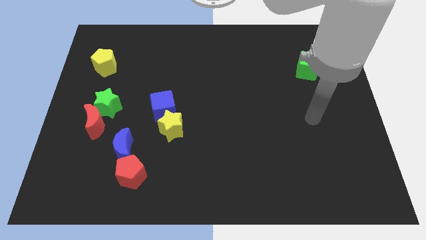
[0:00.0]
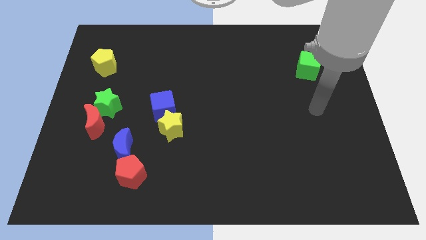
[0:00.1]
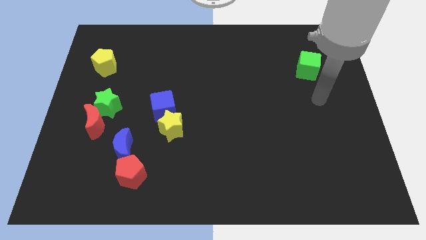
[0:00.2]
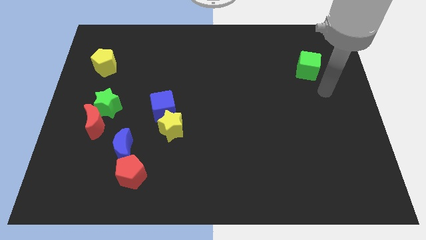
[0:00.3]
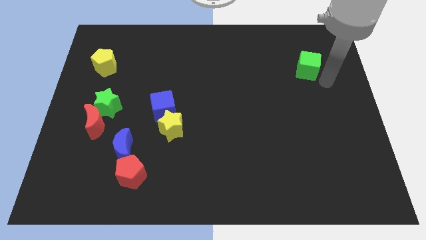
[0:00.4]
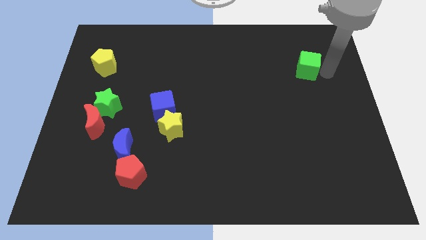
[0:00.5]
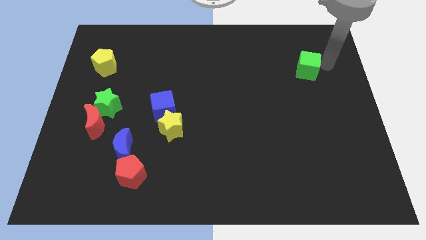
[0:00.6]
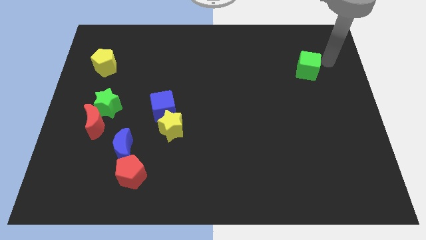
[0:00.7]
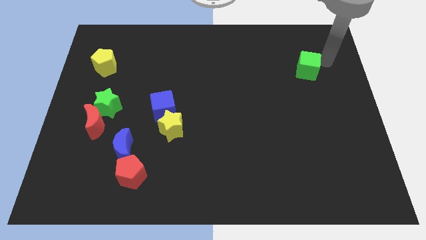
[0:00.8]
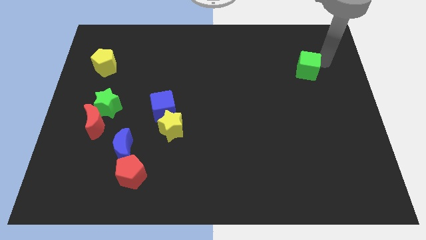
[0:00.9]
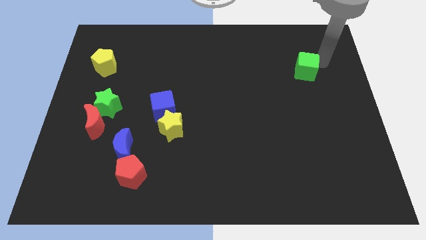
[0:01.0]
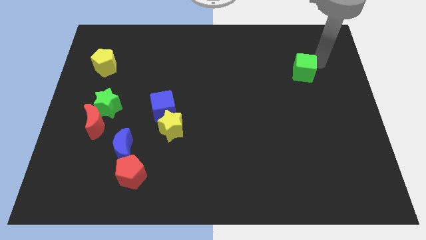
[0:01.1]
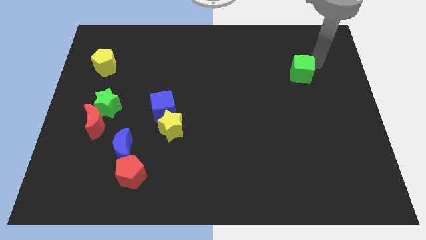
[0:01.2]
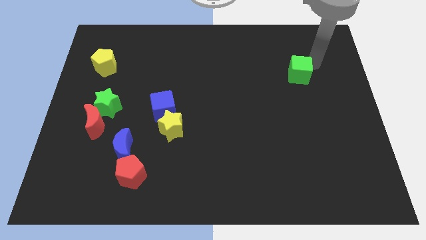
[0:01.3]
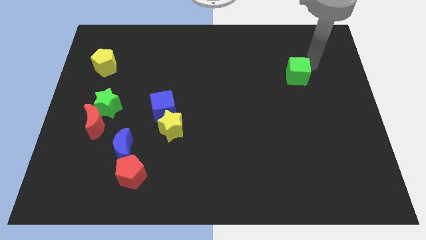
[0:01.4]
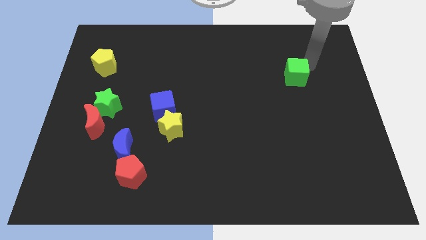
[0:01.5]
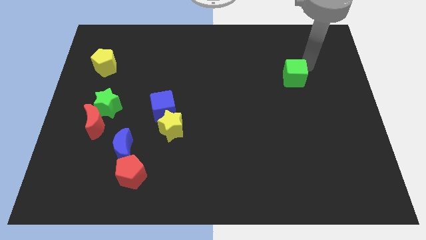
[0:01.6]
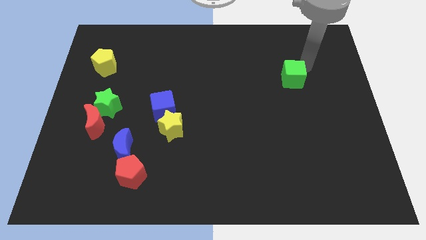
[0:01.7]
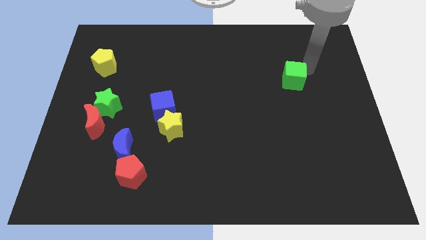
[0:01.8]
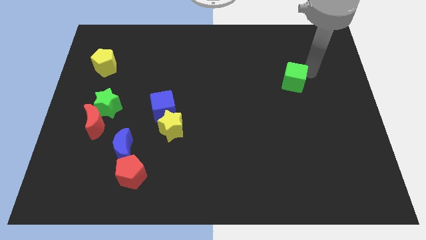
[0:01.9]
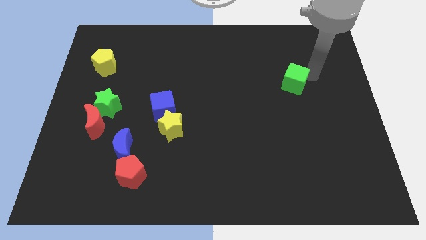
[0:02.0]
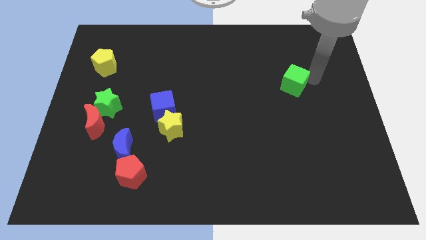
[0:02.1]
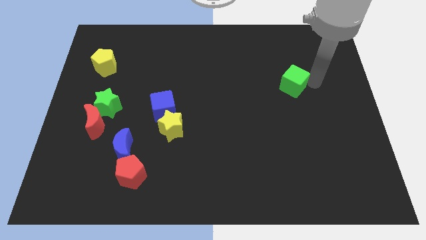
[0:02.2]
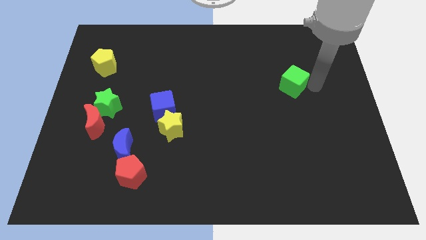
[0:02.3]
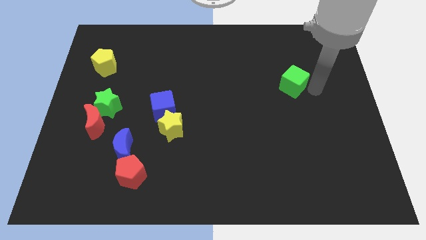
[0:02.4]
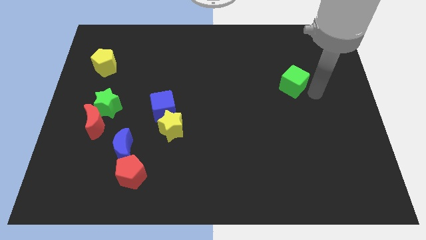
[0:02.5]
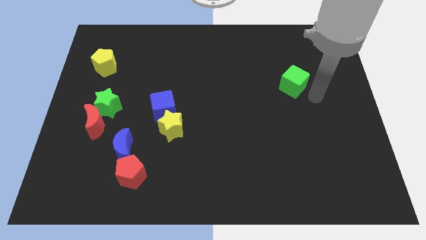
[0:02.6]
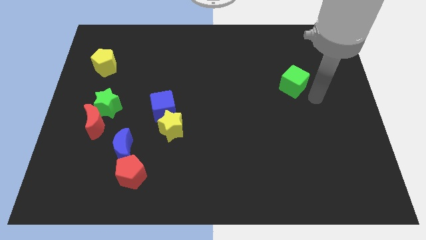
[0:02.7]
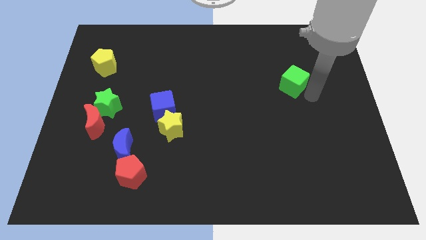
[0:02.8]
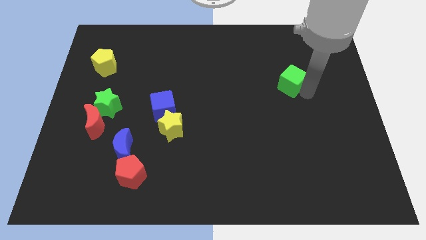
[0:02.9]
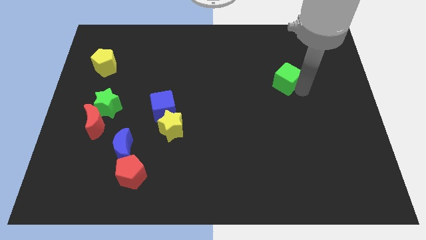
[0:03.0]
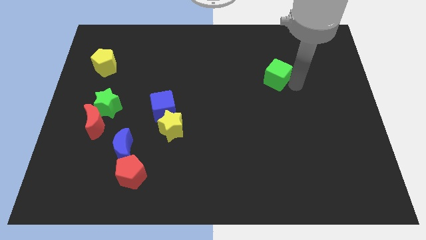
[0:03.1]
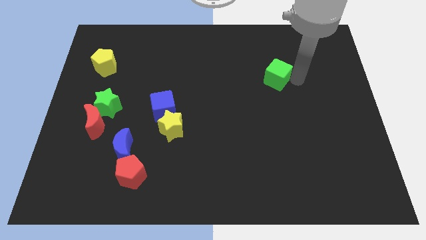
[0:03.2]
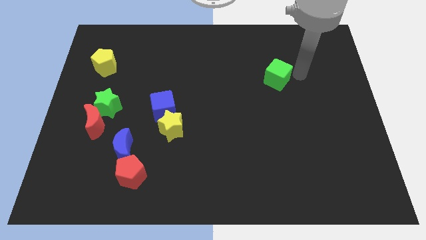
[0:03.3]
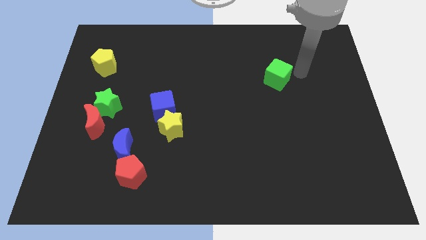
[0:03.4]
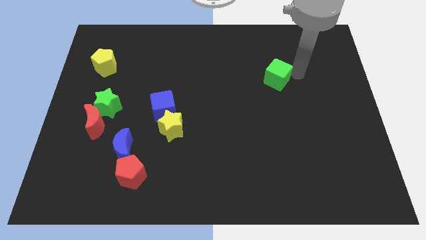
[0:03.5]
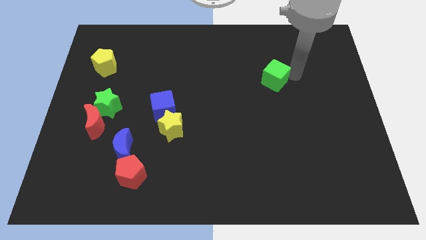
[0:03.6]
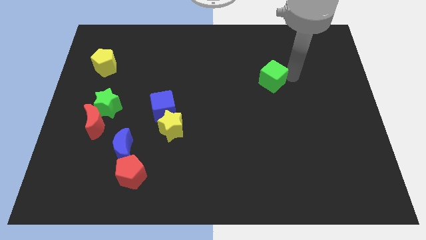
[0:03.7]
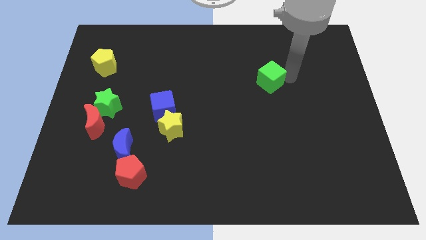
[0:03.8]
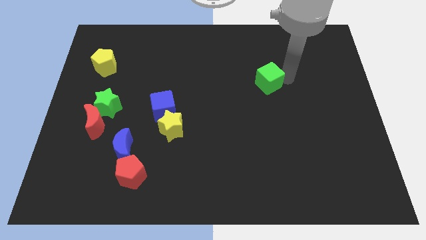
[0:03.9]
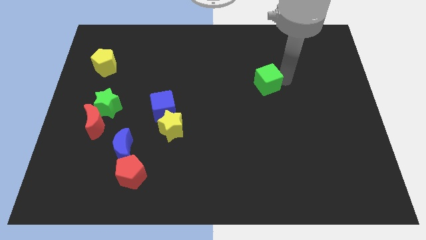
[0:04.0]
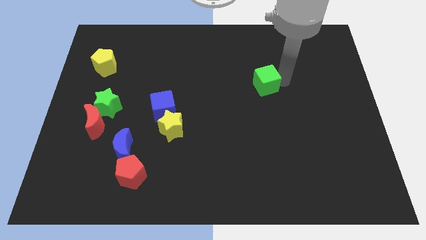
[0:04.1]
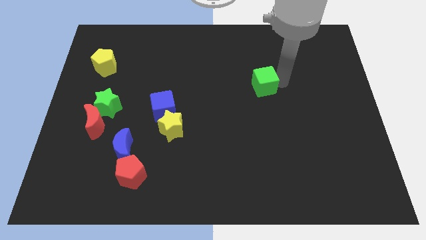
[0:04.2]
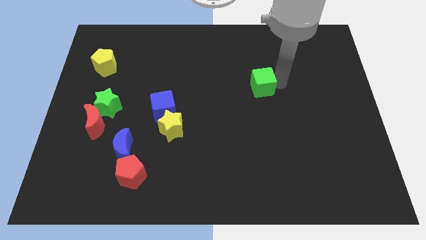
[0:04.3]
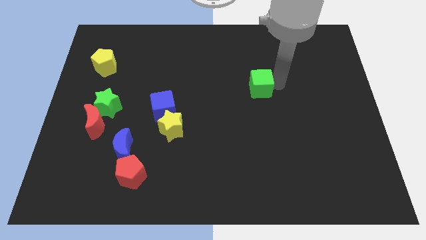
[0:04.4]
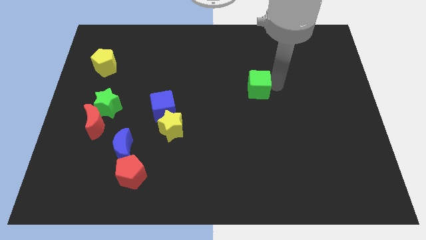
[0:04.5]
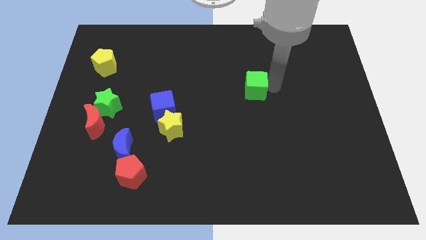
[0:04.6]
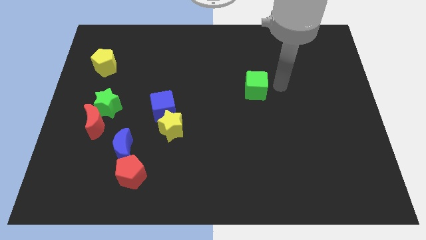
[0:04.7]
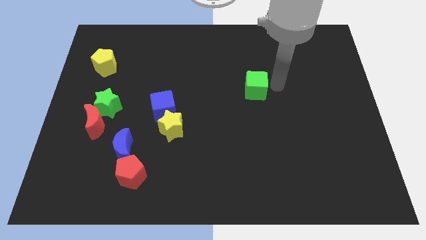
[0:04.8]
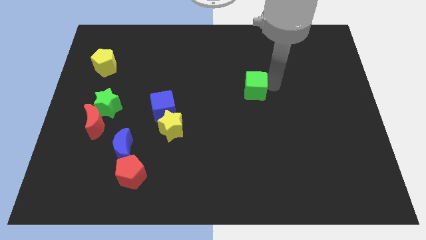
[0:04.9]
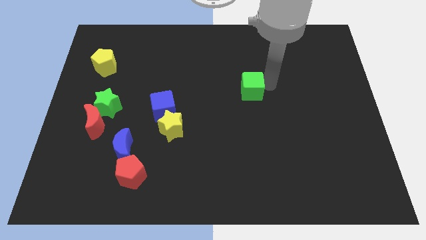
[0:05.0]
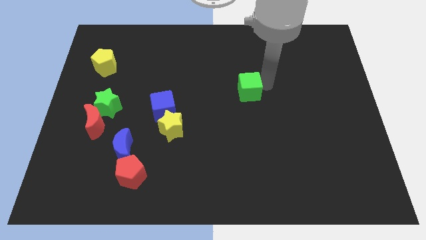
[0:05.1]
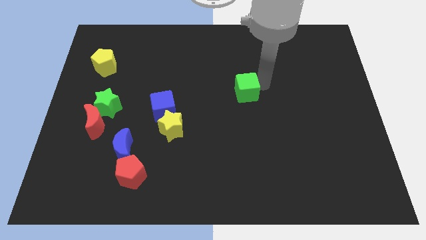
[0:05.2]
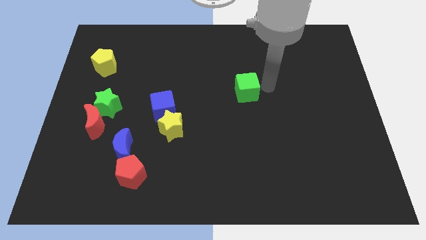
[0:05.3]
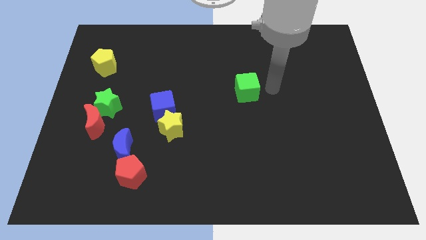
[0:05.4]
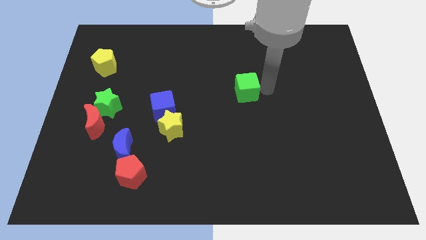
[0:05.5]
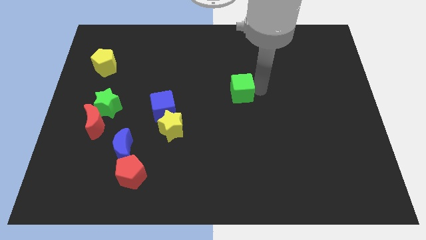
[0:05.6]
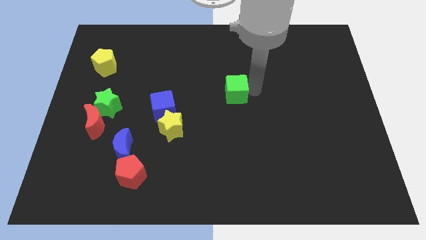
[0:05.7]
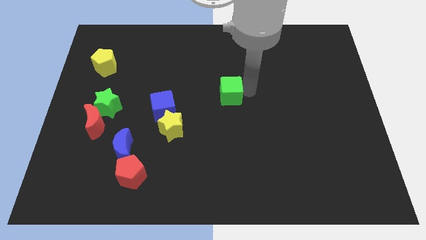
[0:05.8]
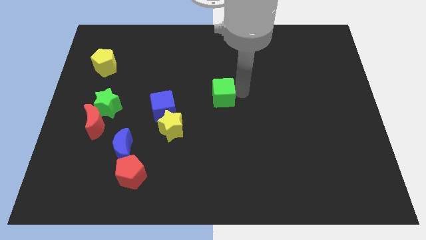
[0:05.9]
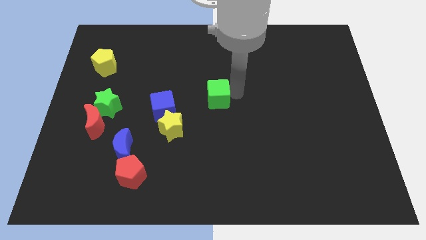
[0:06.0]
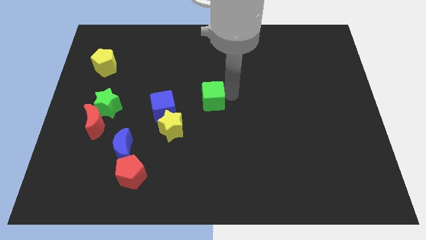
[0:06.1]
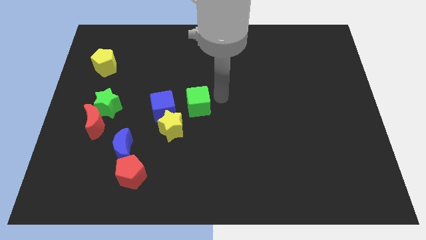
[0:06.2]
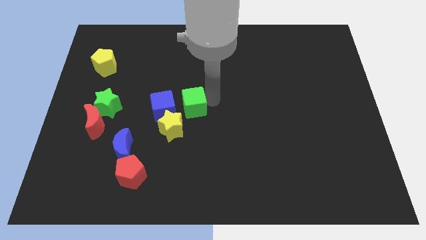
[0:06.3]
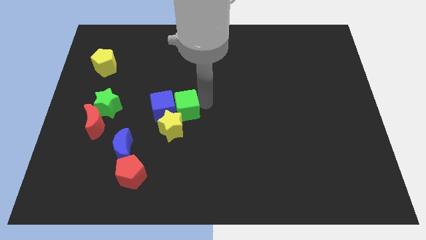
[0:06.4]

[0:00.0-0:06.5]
slide the green cube next to the blue cube

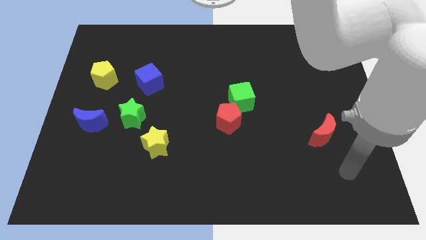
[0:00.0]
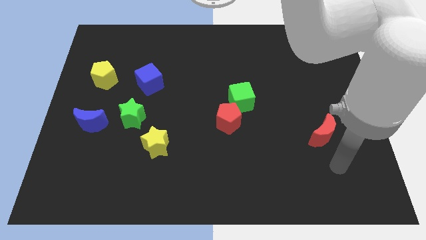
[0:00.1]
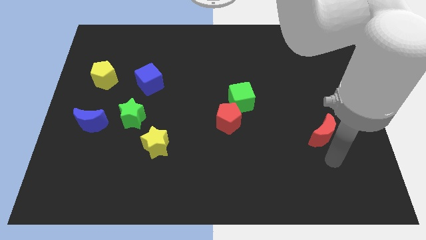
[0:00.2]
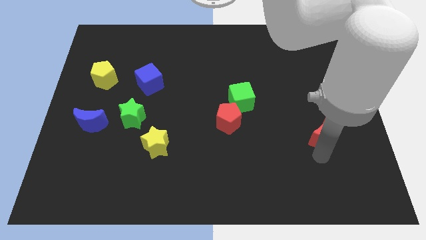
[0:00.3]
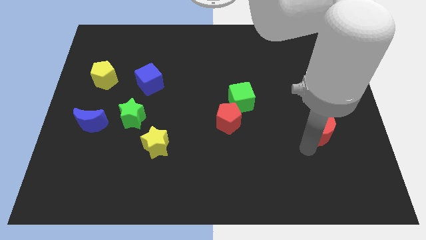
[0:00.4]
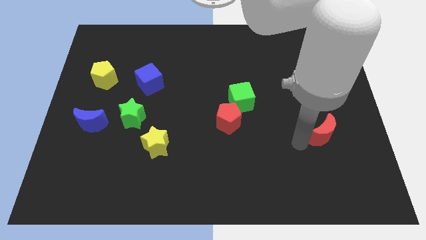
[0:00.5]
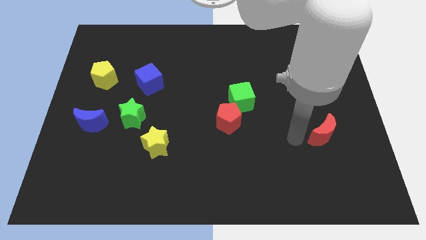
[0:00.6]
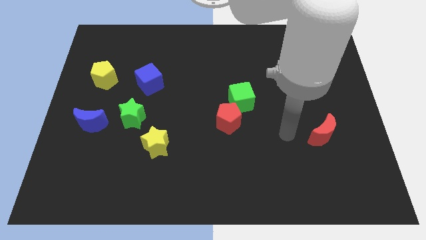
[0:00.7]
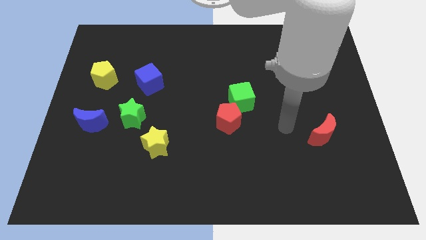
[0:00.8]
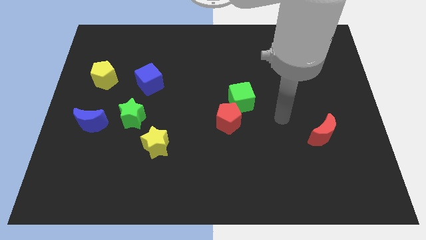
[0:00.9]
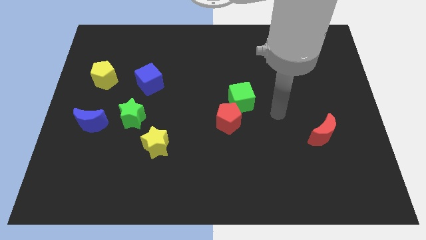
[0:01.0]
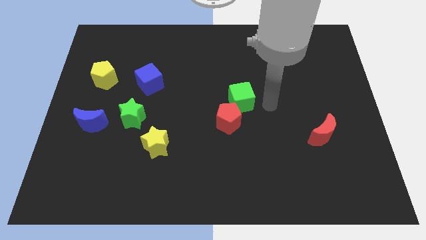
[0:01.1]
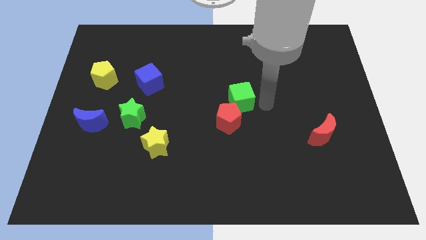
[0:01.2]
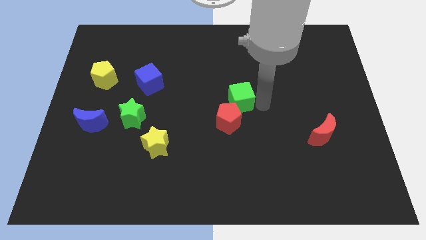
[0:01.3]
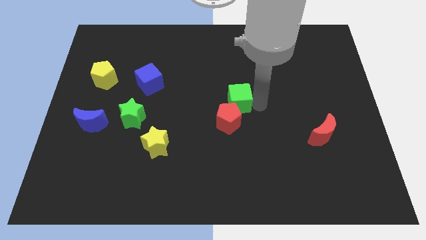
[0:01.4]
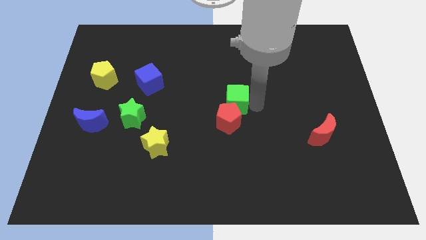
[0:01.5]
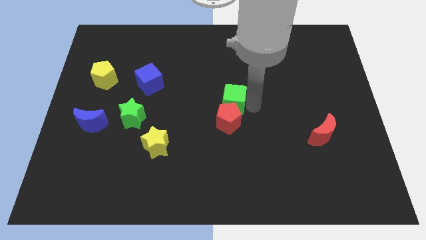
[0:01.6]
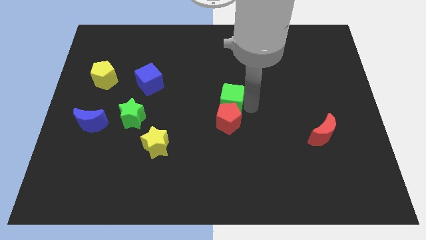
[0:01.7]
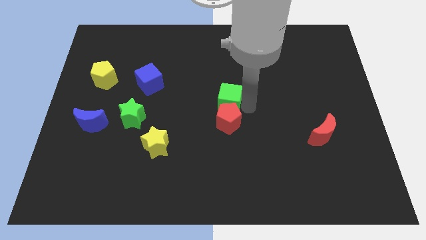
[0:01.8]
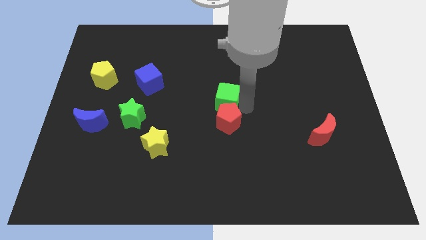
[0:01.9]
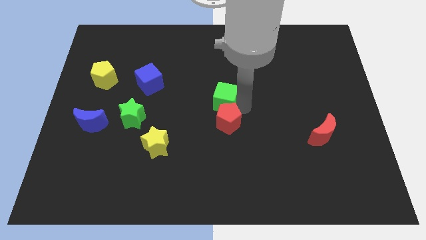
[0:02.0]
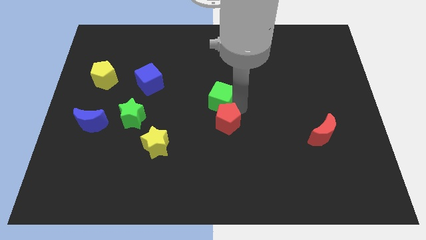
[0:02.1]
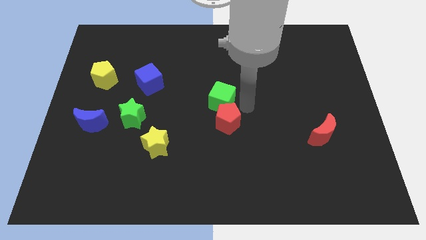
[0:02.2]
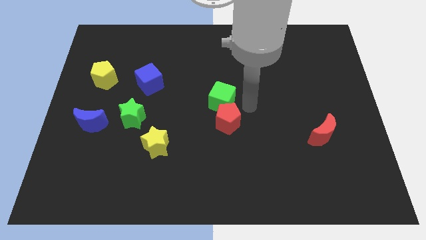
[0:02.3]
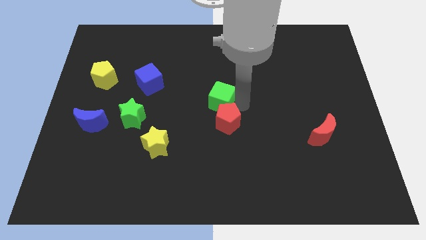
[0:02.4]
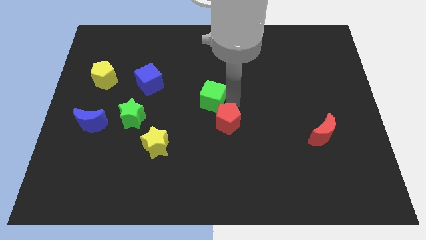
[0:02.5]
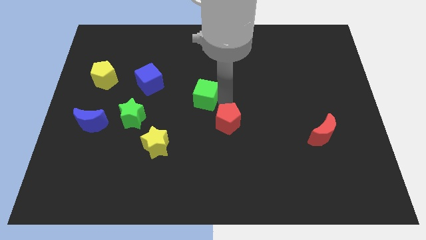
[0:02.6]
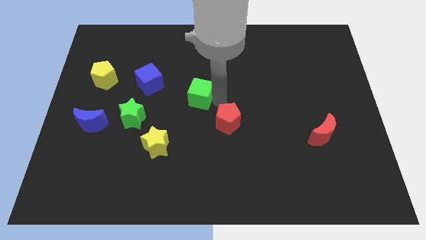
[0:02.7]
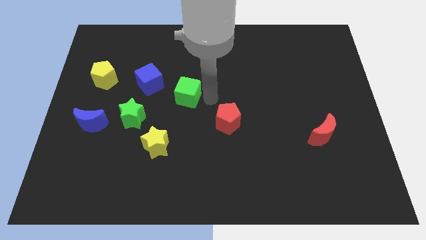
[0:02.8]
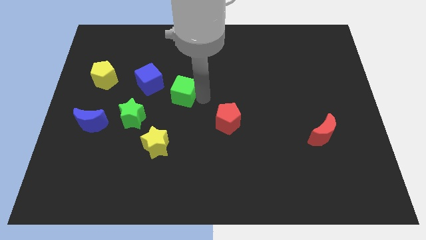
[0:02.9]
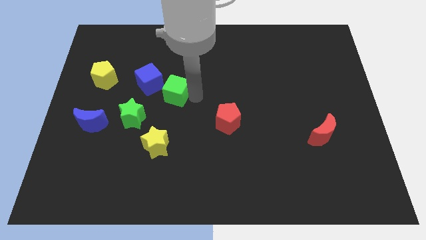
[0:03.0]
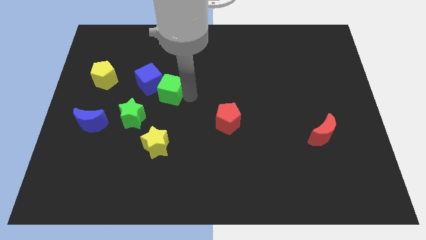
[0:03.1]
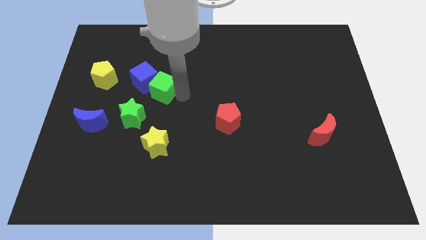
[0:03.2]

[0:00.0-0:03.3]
push the green cube to the blue cube
